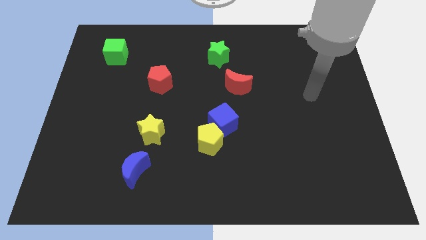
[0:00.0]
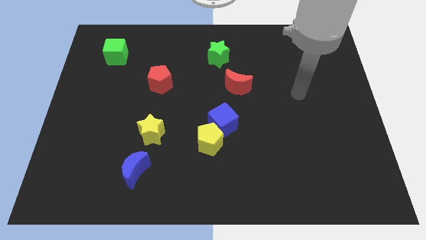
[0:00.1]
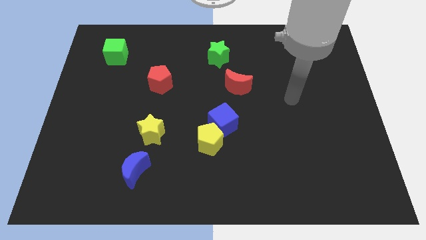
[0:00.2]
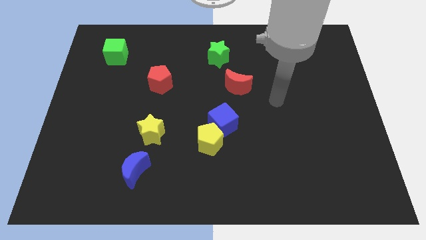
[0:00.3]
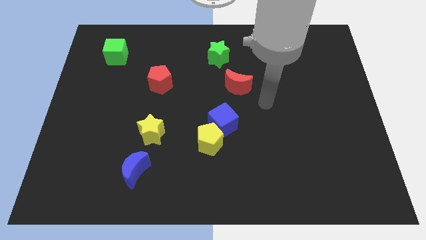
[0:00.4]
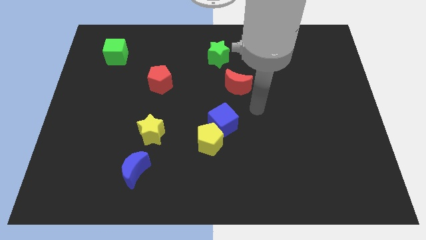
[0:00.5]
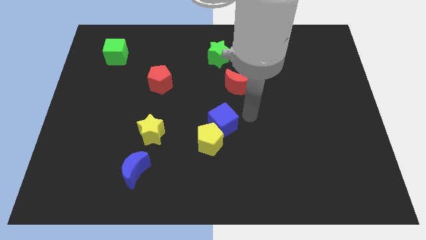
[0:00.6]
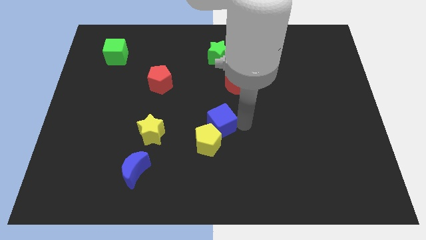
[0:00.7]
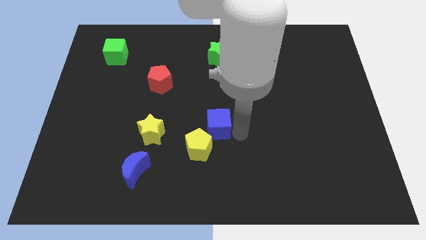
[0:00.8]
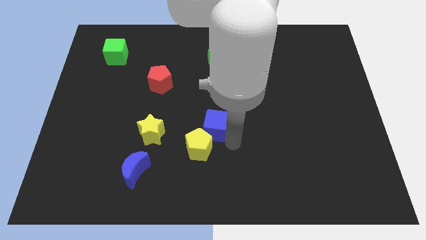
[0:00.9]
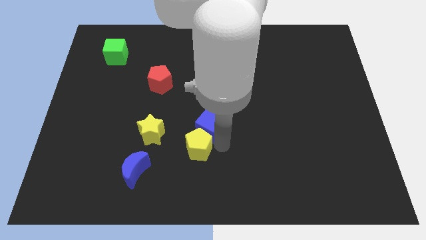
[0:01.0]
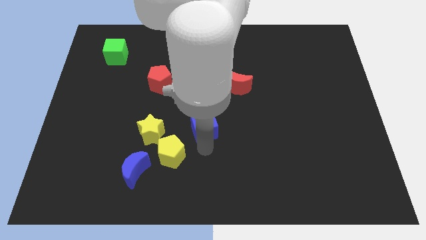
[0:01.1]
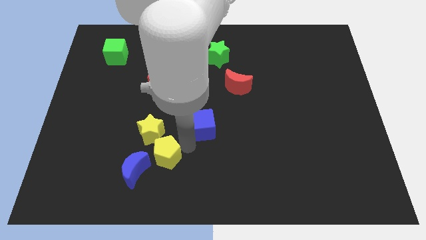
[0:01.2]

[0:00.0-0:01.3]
move the blue cube away from the yellow pentagon

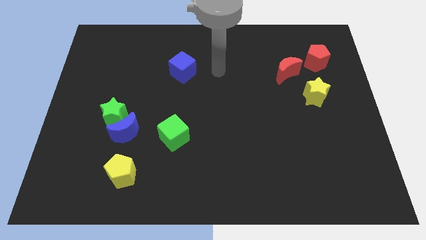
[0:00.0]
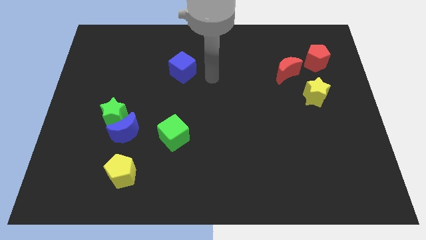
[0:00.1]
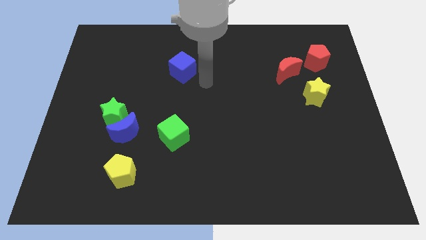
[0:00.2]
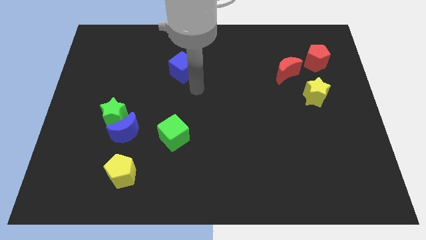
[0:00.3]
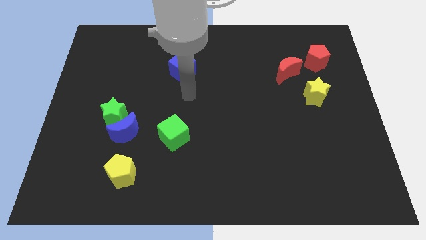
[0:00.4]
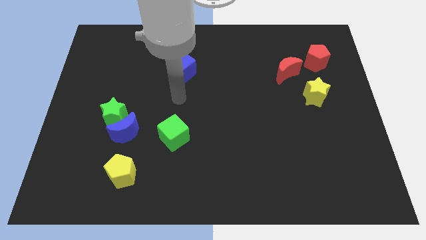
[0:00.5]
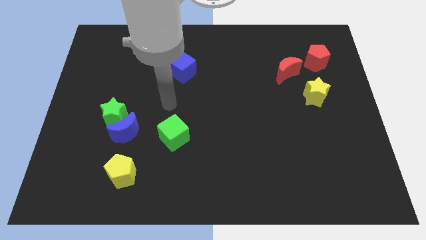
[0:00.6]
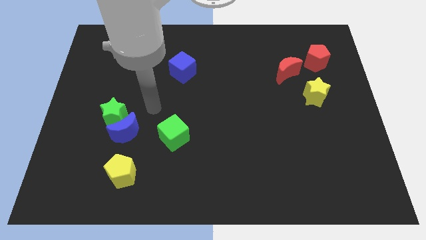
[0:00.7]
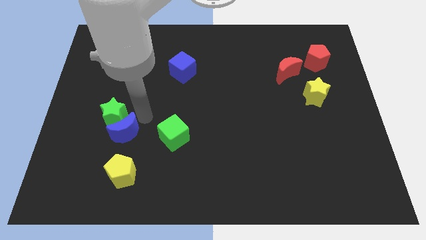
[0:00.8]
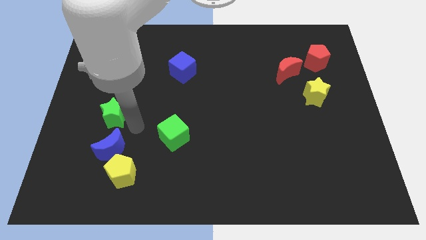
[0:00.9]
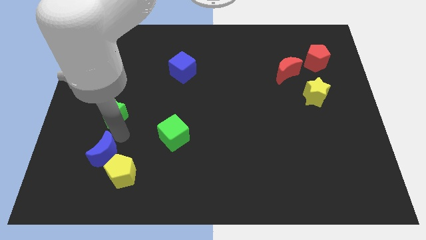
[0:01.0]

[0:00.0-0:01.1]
separate the green star from the blue moon

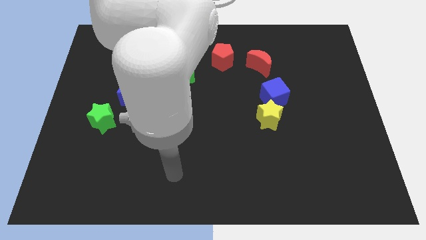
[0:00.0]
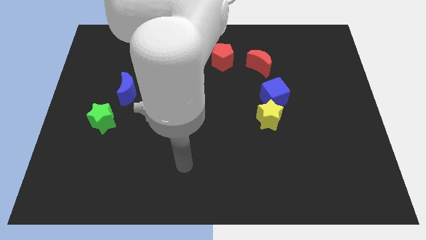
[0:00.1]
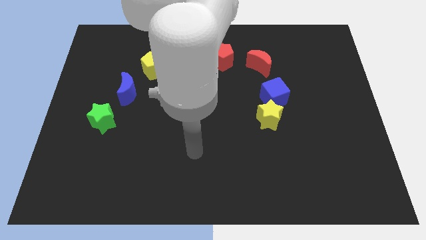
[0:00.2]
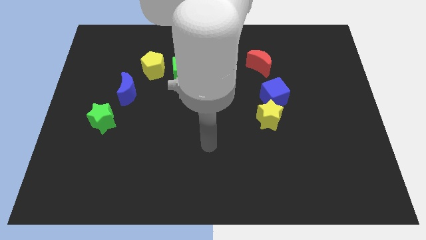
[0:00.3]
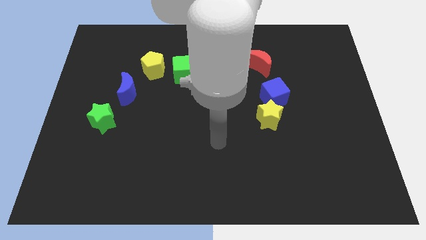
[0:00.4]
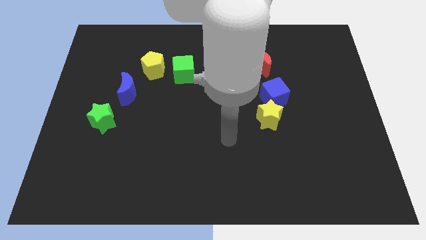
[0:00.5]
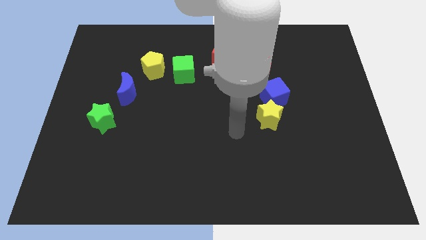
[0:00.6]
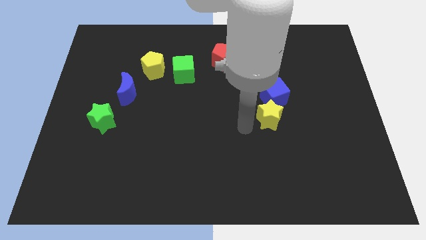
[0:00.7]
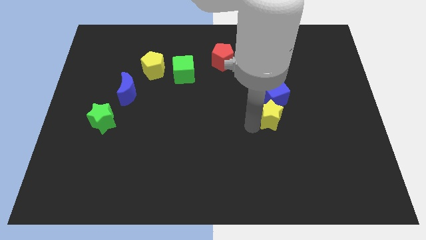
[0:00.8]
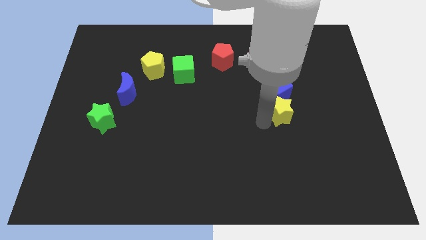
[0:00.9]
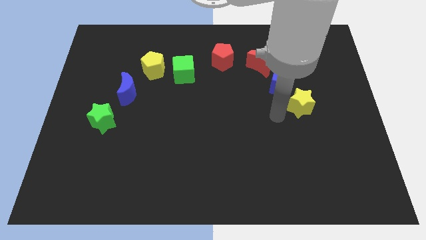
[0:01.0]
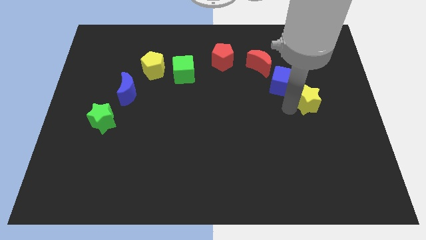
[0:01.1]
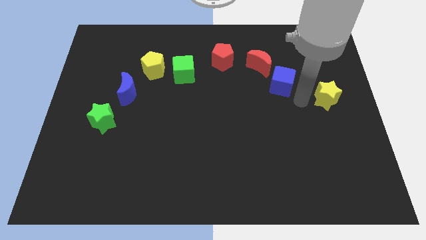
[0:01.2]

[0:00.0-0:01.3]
pull the blue cube apart from the yellow star

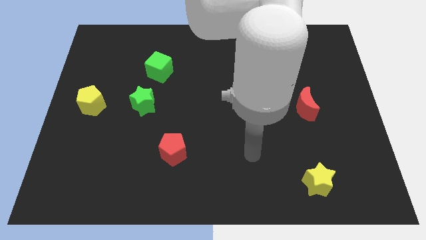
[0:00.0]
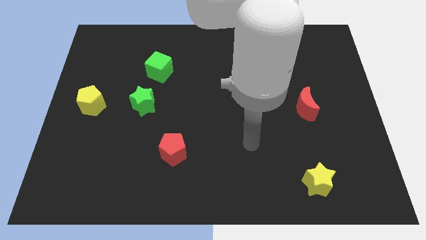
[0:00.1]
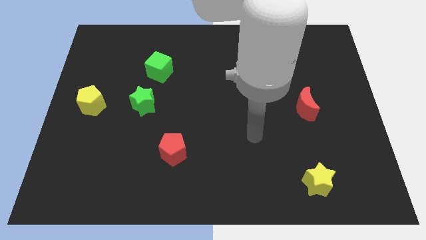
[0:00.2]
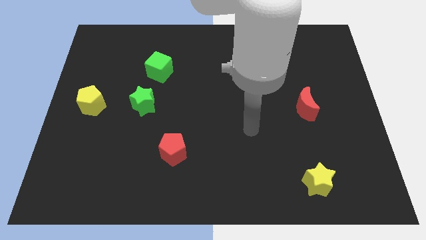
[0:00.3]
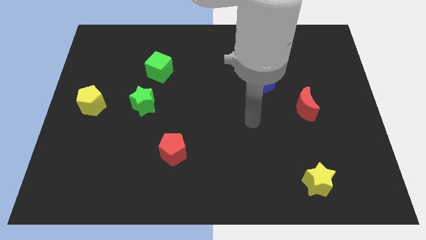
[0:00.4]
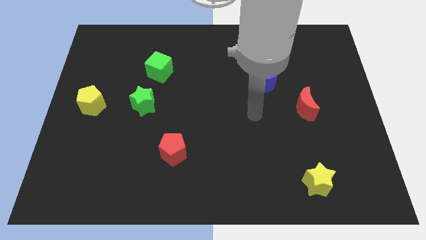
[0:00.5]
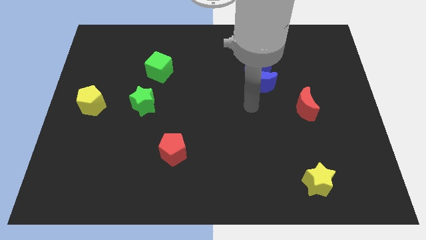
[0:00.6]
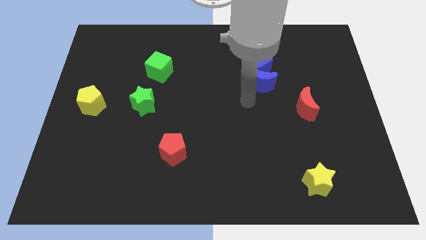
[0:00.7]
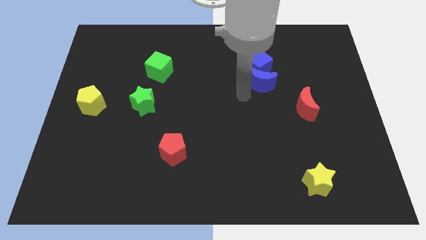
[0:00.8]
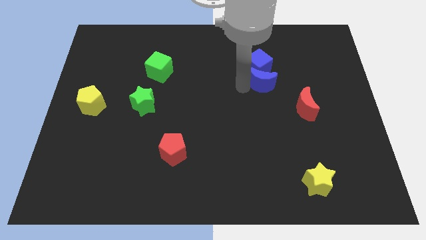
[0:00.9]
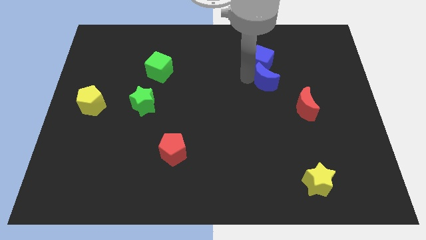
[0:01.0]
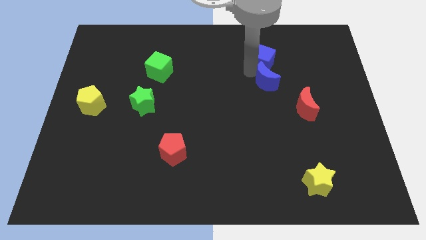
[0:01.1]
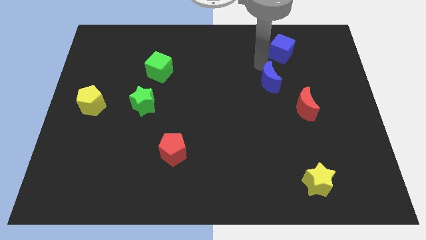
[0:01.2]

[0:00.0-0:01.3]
separate the blue moon from the blue cube

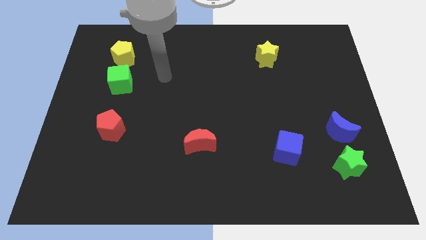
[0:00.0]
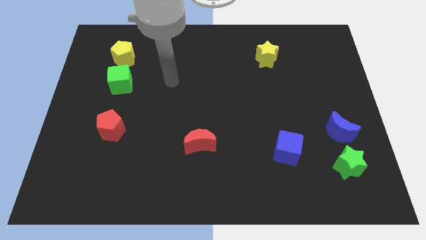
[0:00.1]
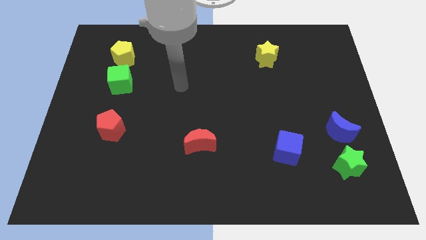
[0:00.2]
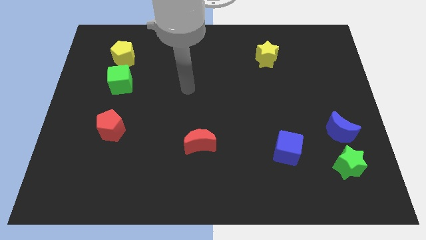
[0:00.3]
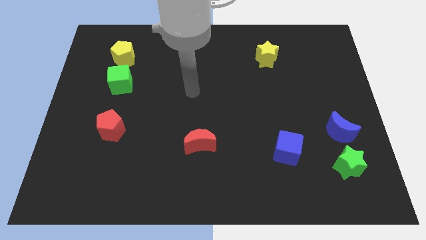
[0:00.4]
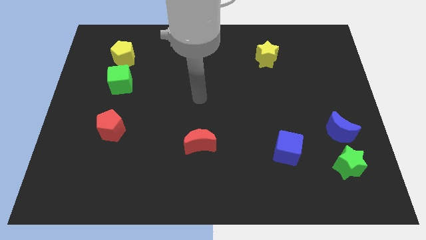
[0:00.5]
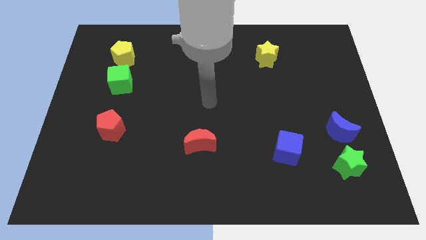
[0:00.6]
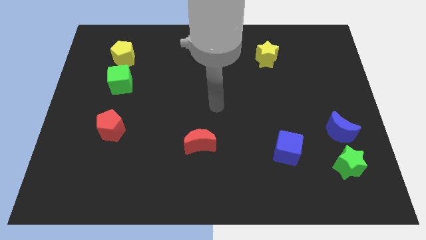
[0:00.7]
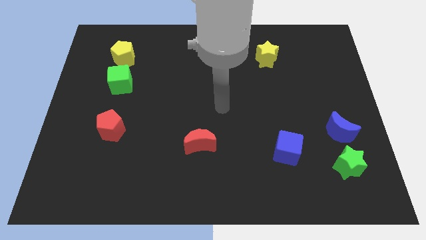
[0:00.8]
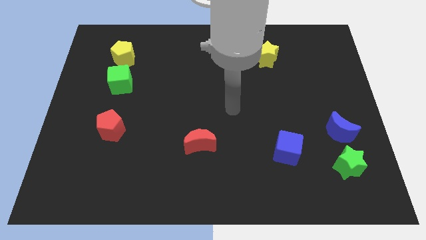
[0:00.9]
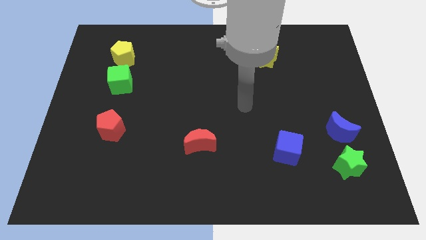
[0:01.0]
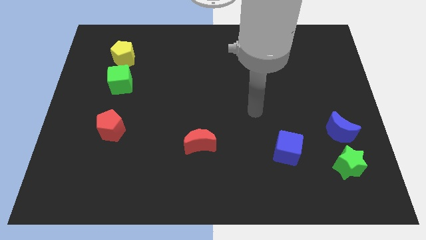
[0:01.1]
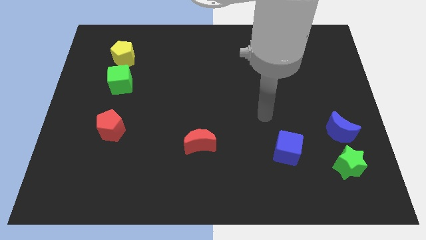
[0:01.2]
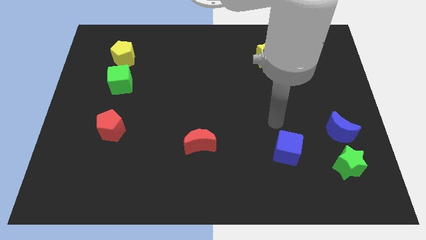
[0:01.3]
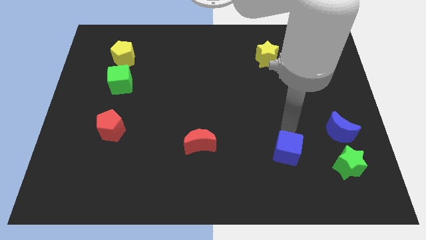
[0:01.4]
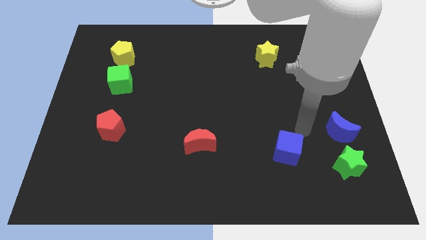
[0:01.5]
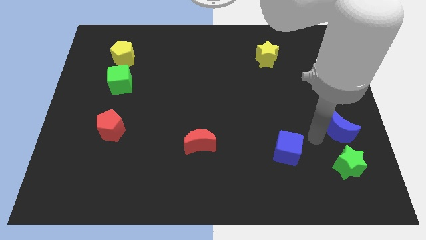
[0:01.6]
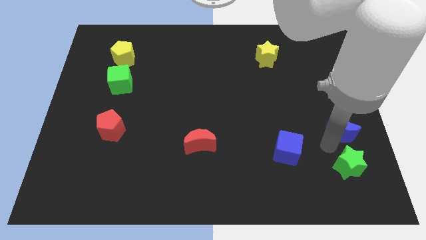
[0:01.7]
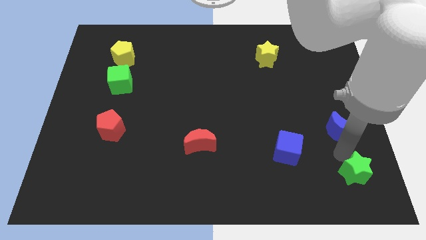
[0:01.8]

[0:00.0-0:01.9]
pull the blue moon apart from the green star

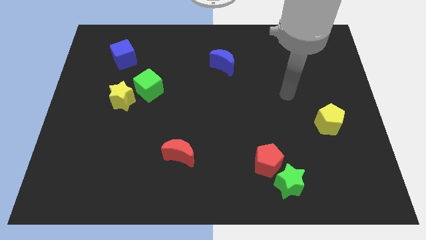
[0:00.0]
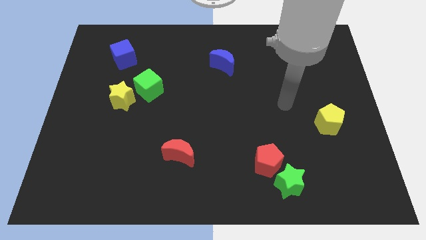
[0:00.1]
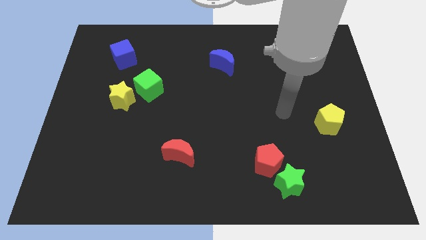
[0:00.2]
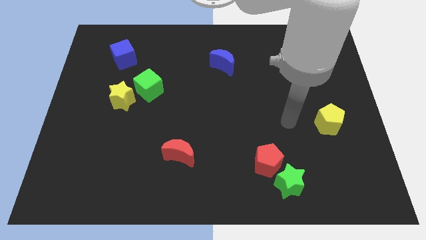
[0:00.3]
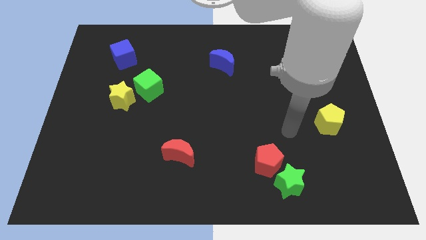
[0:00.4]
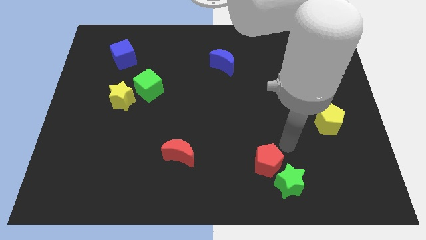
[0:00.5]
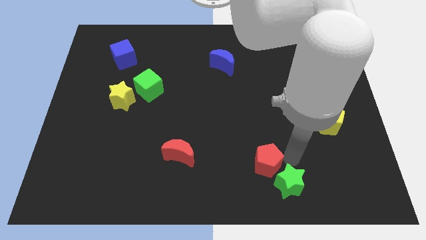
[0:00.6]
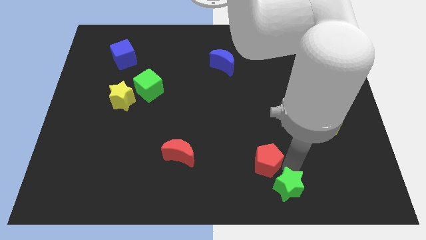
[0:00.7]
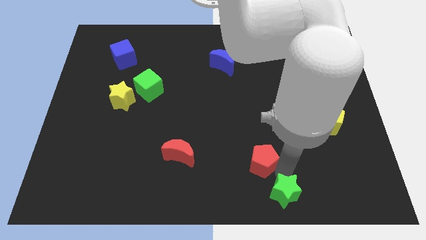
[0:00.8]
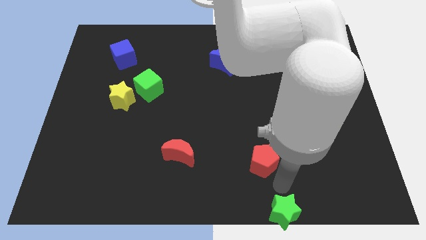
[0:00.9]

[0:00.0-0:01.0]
separate the red pentagon from the green star

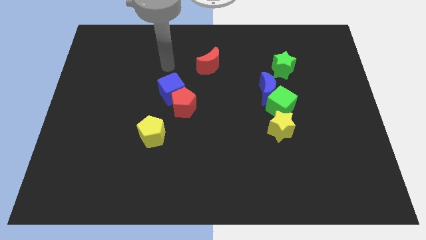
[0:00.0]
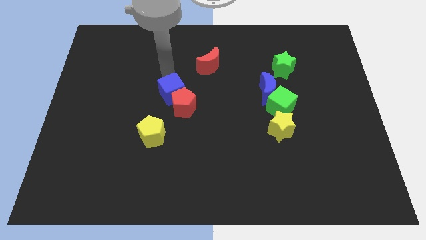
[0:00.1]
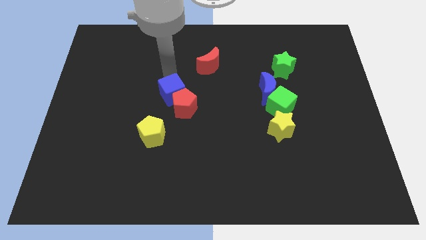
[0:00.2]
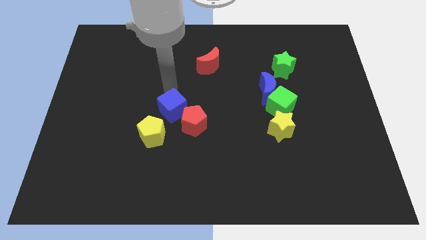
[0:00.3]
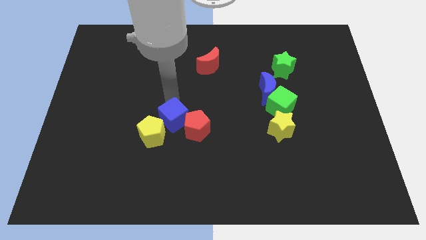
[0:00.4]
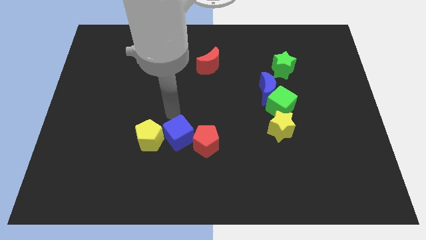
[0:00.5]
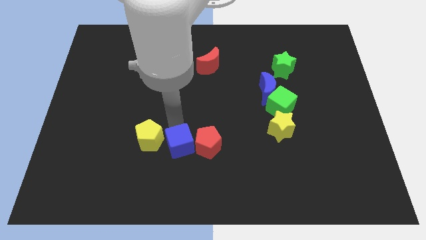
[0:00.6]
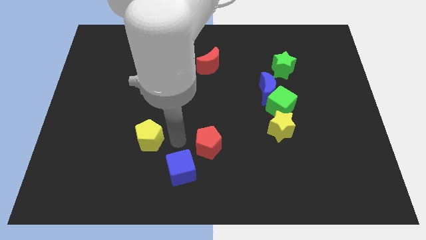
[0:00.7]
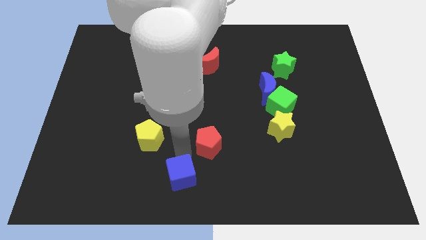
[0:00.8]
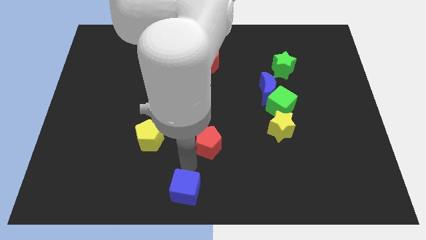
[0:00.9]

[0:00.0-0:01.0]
pull the red pentagon apart from the blue cube

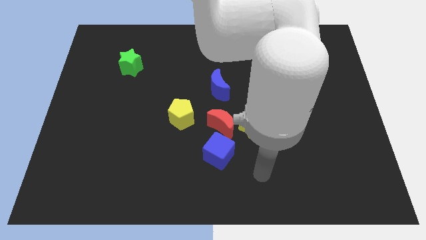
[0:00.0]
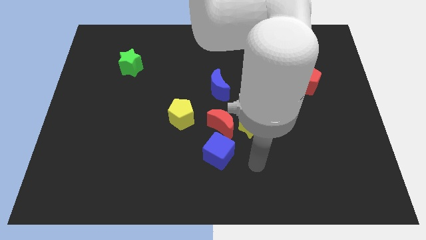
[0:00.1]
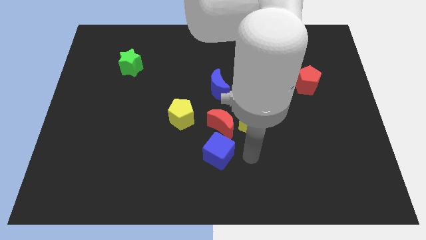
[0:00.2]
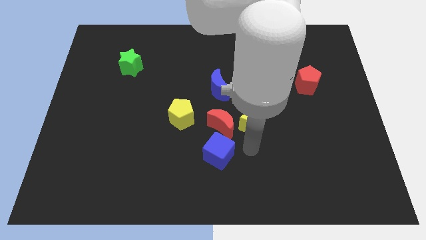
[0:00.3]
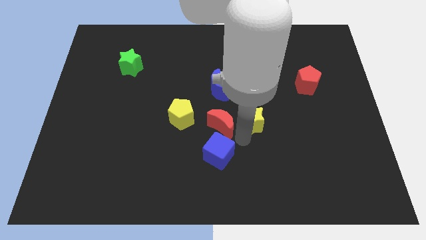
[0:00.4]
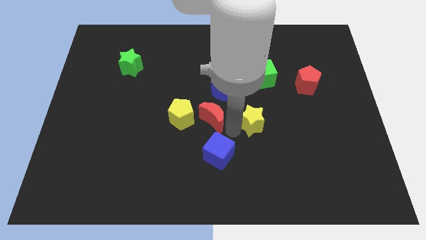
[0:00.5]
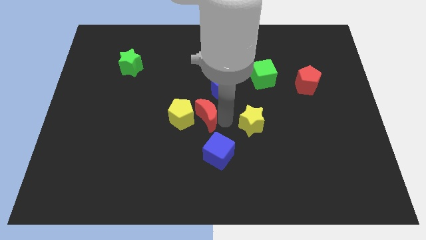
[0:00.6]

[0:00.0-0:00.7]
separate the yellow star from the red moon
